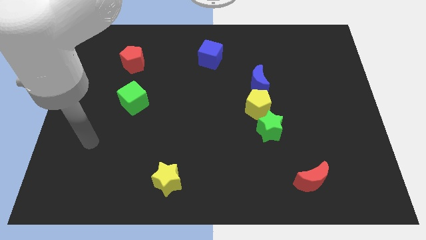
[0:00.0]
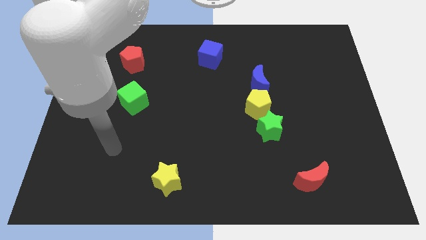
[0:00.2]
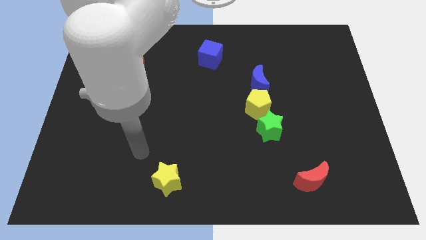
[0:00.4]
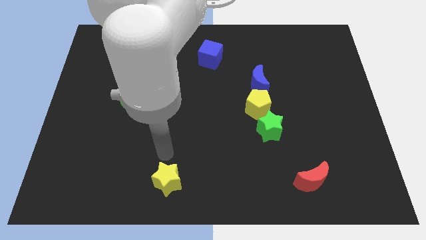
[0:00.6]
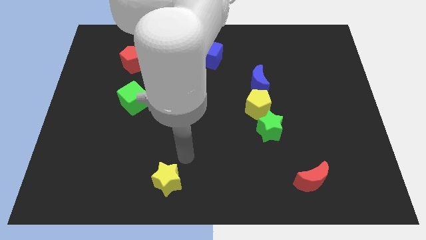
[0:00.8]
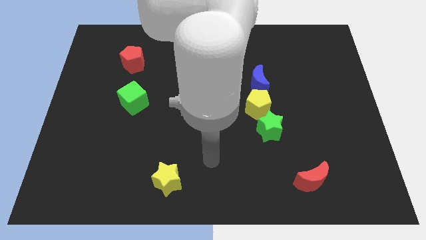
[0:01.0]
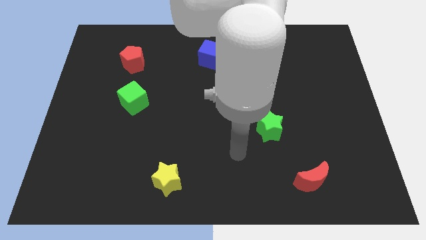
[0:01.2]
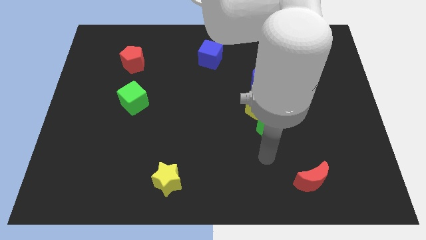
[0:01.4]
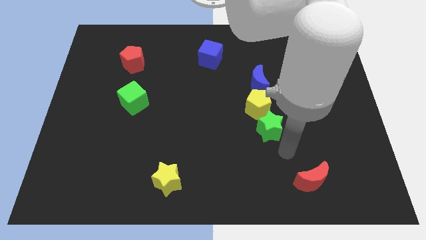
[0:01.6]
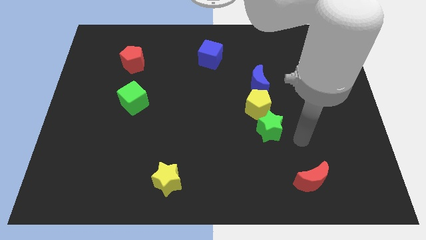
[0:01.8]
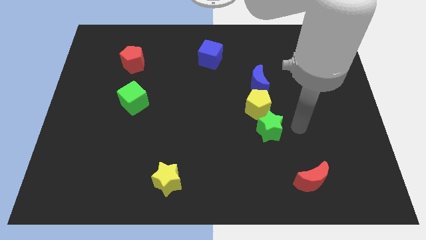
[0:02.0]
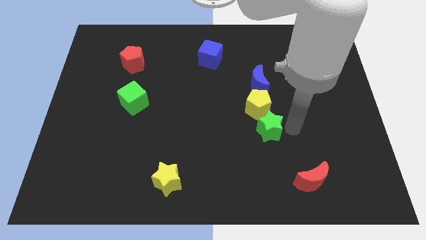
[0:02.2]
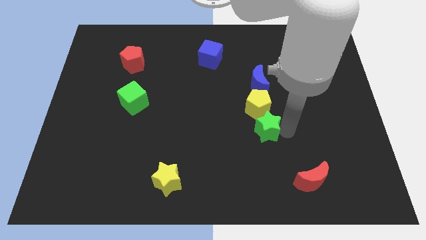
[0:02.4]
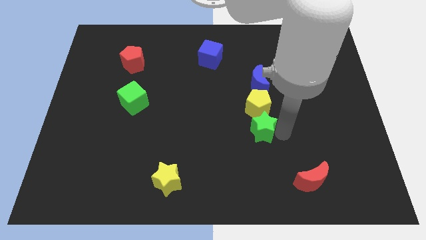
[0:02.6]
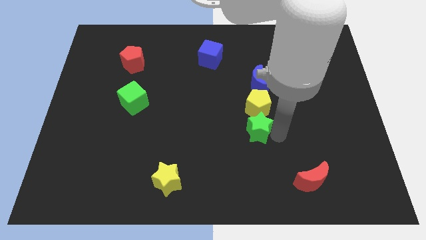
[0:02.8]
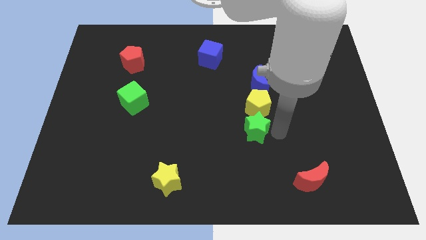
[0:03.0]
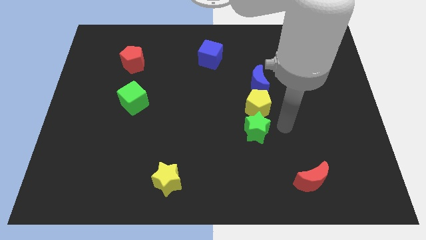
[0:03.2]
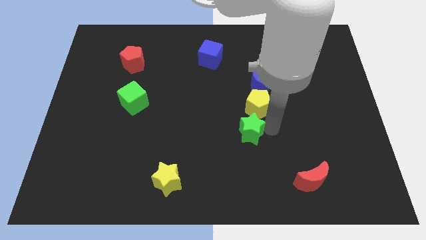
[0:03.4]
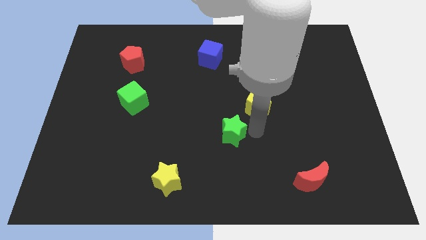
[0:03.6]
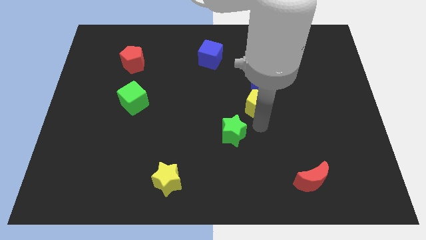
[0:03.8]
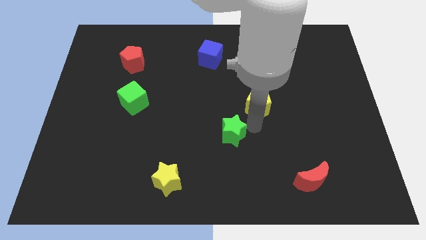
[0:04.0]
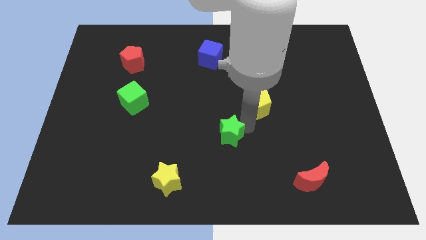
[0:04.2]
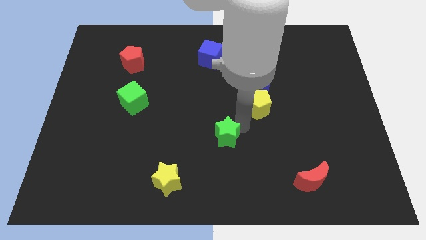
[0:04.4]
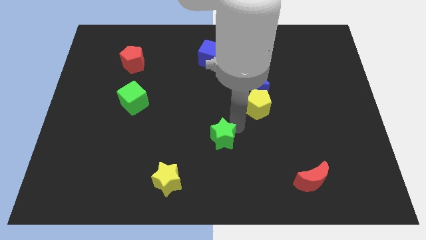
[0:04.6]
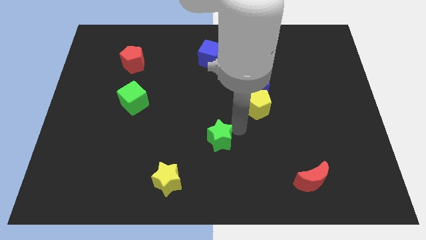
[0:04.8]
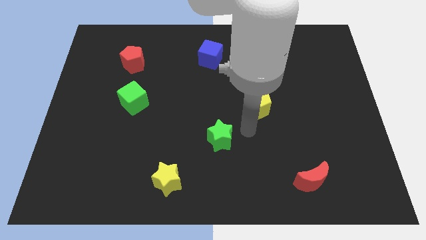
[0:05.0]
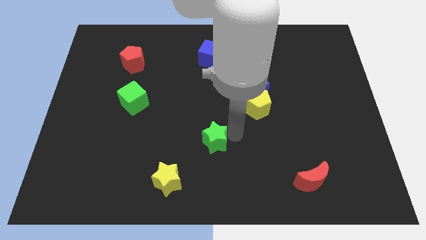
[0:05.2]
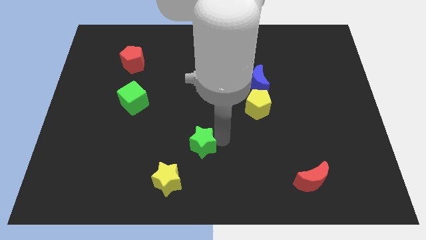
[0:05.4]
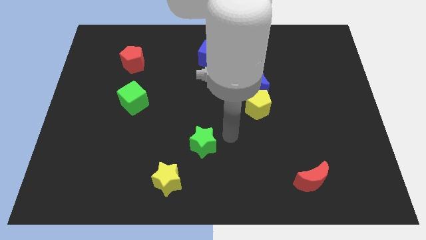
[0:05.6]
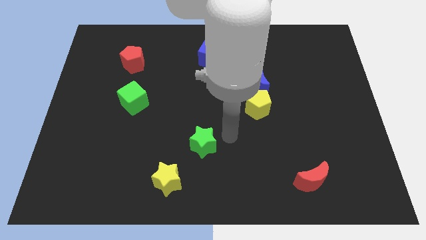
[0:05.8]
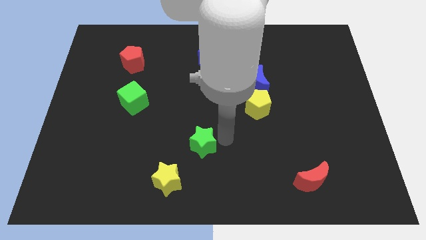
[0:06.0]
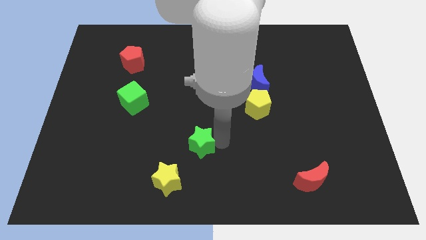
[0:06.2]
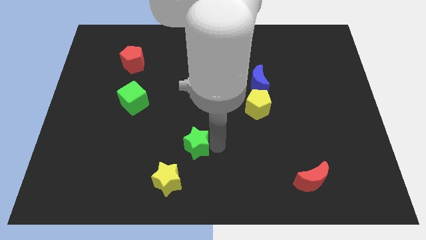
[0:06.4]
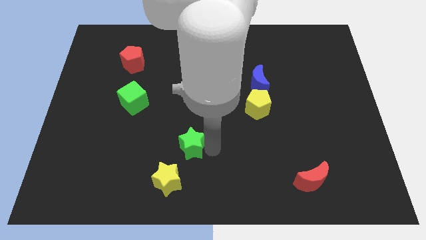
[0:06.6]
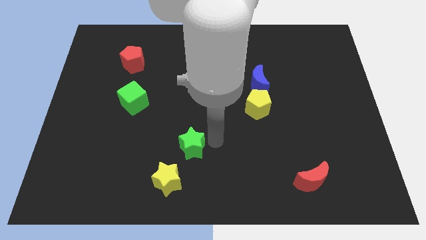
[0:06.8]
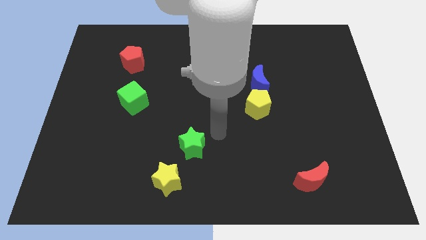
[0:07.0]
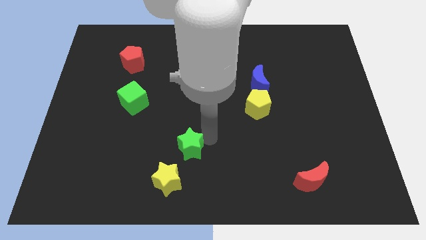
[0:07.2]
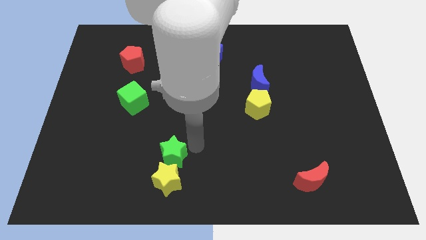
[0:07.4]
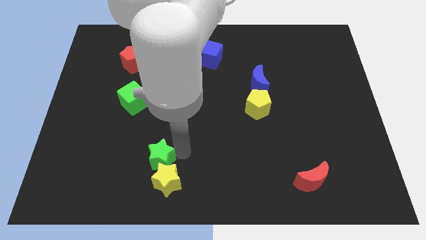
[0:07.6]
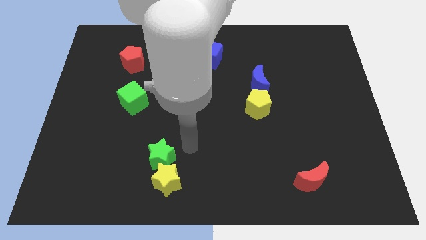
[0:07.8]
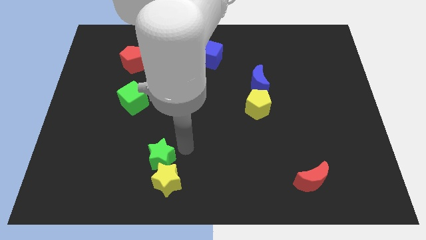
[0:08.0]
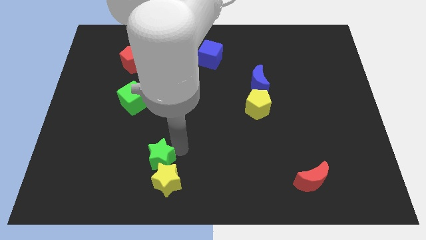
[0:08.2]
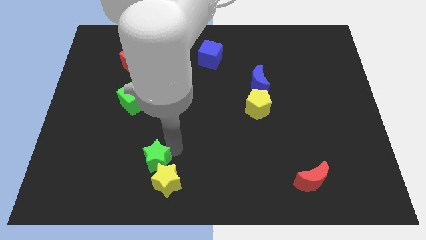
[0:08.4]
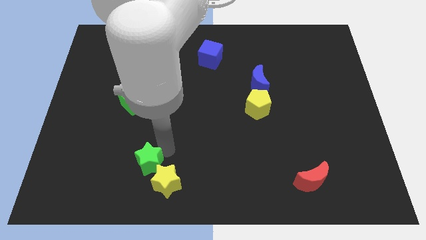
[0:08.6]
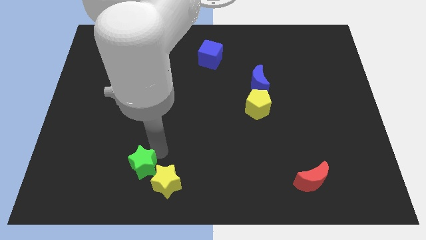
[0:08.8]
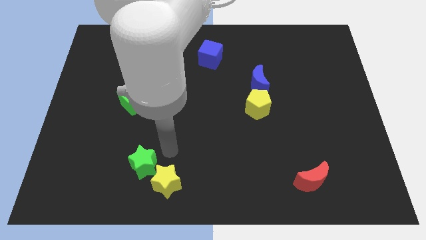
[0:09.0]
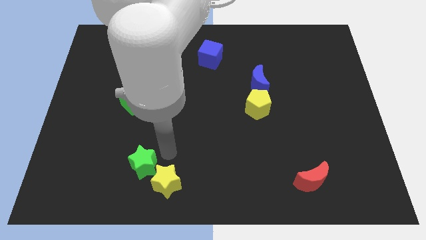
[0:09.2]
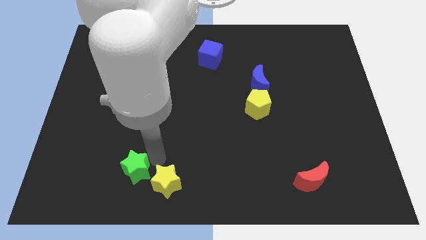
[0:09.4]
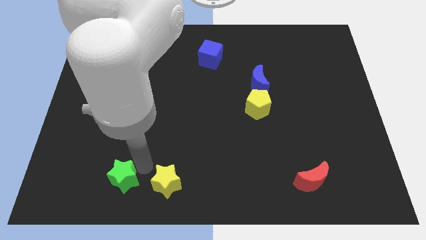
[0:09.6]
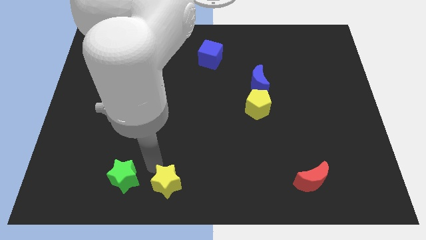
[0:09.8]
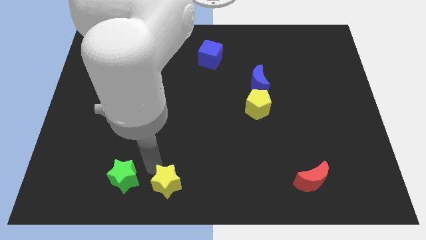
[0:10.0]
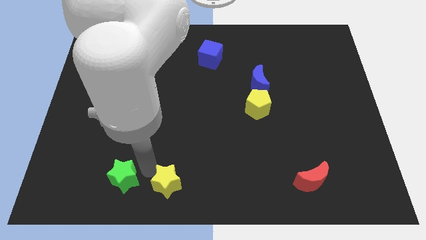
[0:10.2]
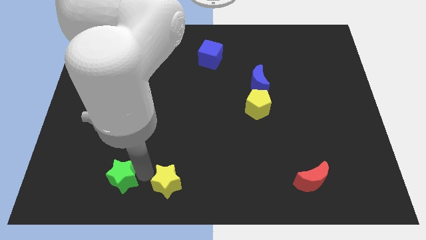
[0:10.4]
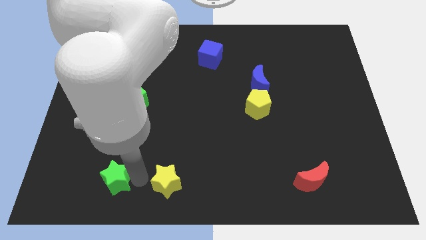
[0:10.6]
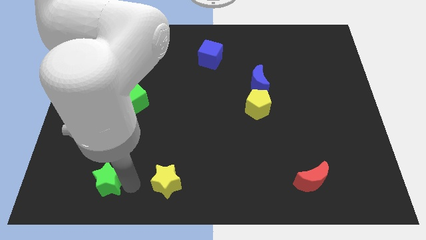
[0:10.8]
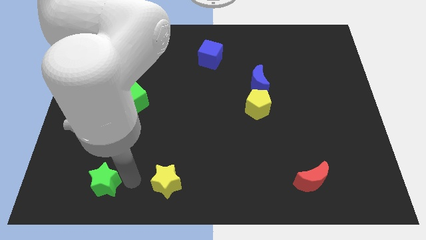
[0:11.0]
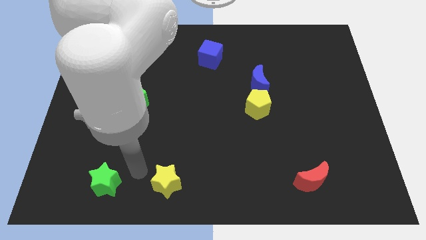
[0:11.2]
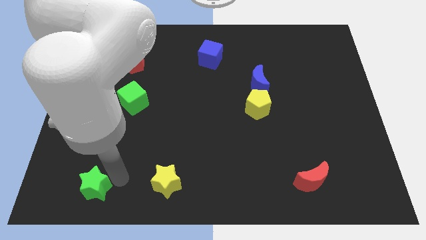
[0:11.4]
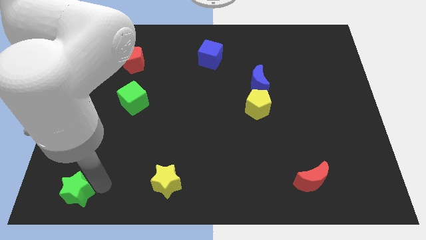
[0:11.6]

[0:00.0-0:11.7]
move the green star to the lower left corner
